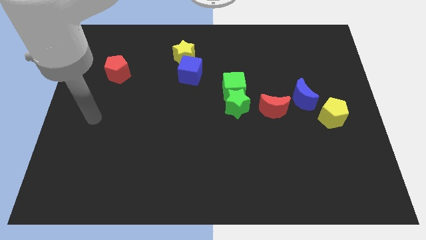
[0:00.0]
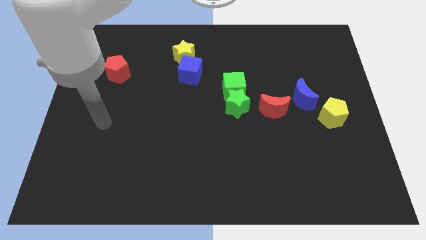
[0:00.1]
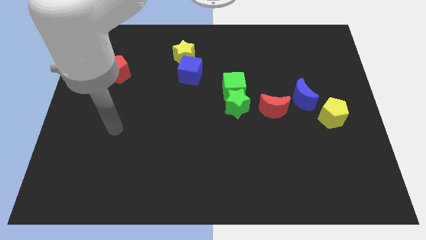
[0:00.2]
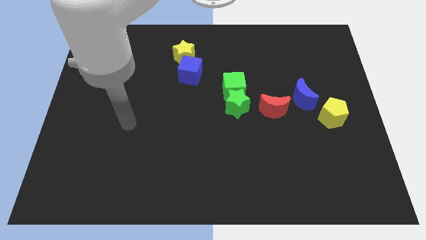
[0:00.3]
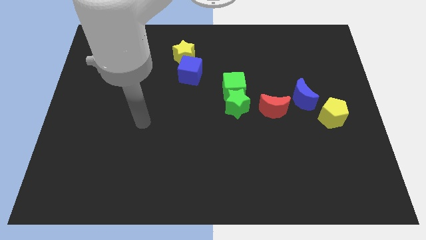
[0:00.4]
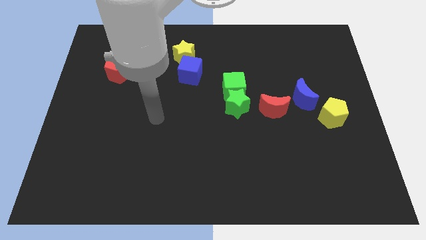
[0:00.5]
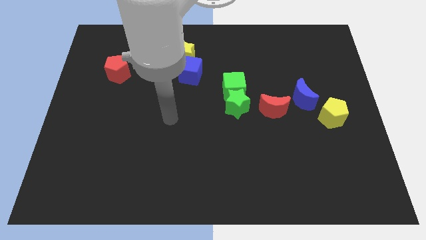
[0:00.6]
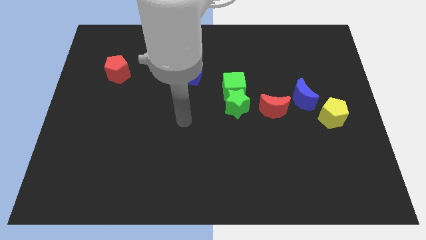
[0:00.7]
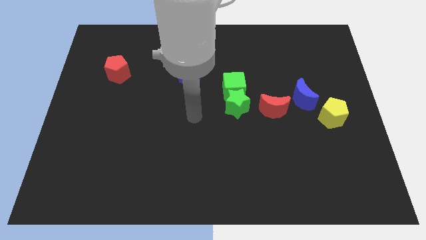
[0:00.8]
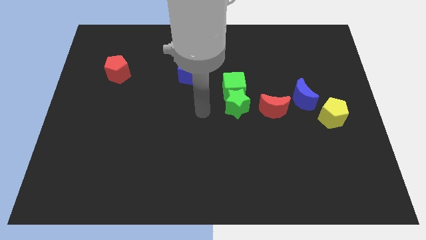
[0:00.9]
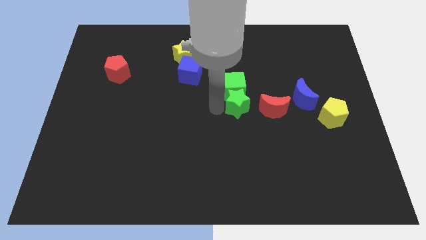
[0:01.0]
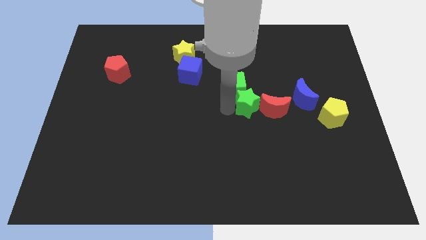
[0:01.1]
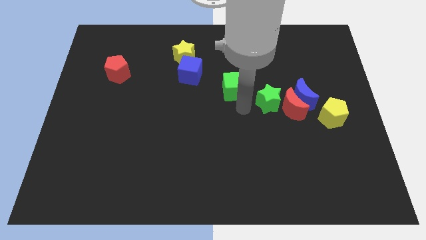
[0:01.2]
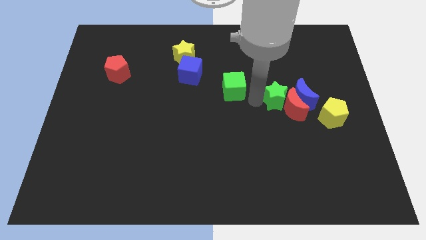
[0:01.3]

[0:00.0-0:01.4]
pull the green cube apart from the green star

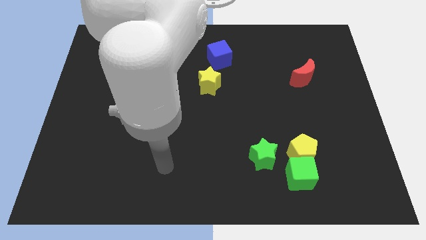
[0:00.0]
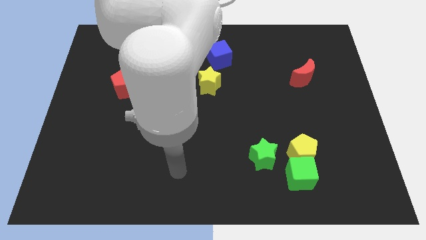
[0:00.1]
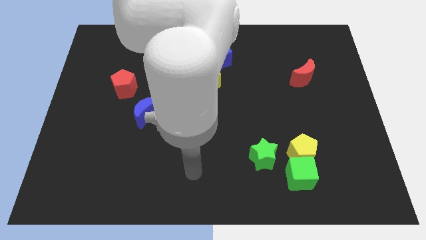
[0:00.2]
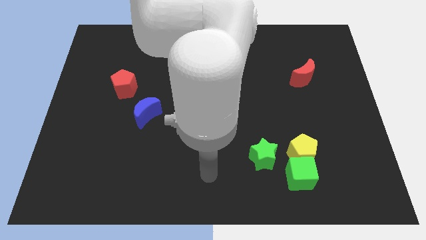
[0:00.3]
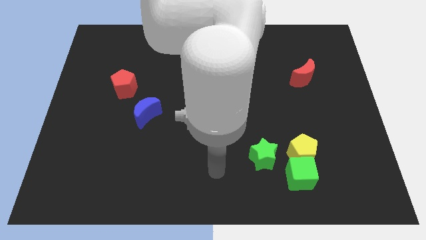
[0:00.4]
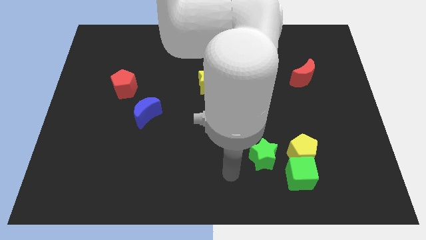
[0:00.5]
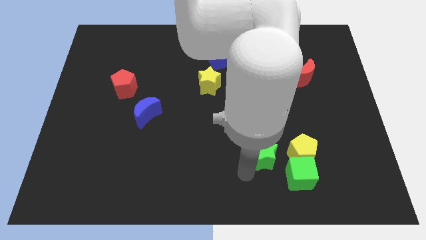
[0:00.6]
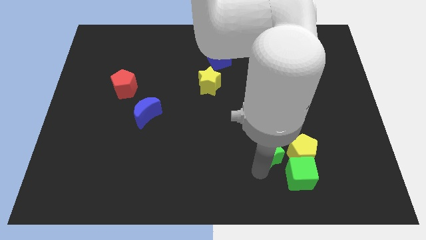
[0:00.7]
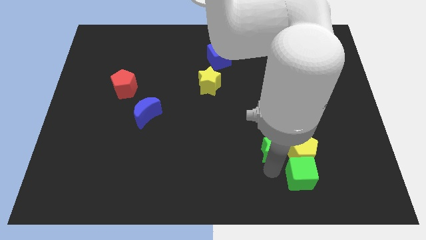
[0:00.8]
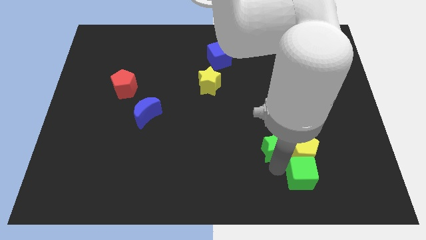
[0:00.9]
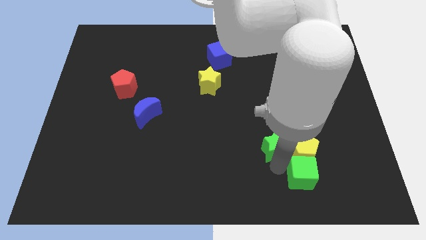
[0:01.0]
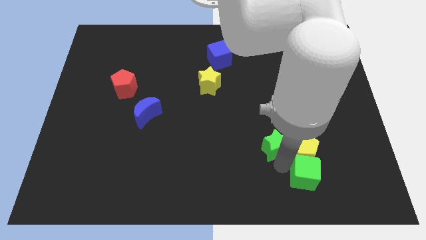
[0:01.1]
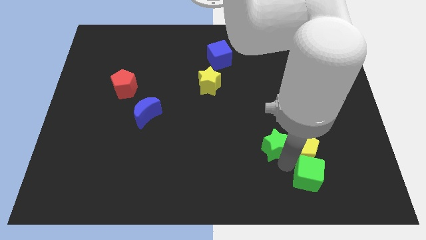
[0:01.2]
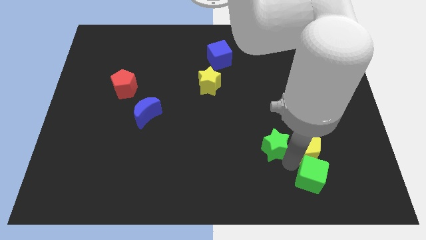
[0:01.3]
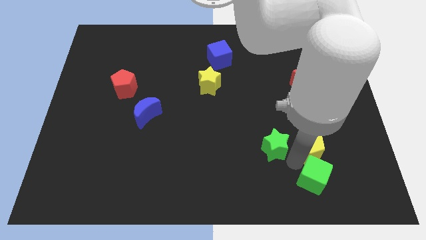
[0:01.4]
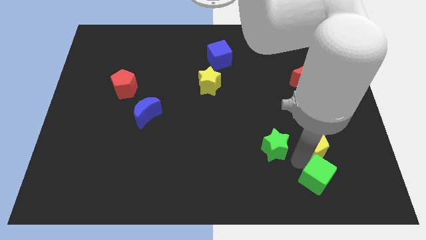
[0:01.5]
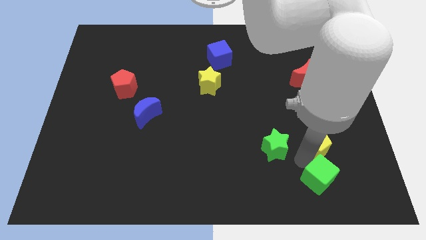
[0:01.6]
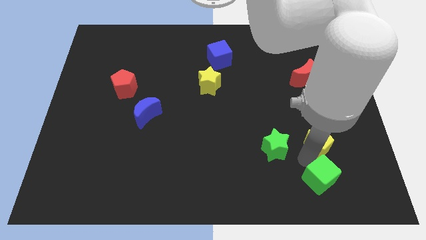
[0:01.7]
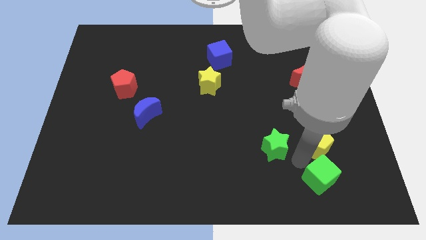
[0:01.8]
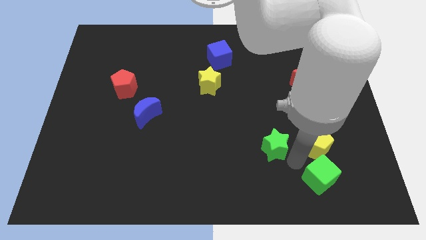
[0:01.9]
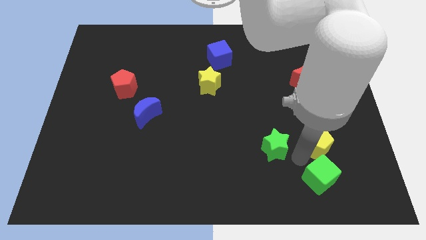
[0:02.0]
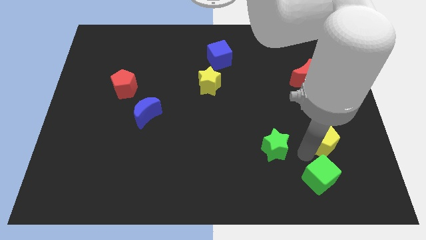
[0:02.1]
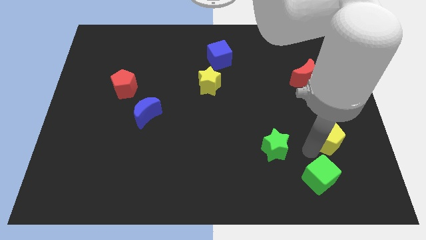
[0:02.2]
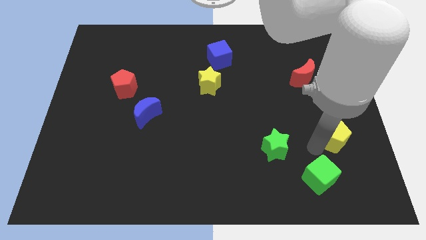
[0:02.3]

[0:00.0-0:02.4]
separate the yellow pentagon from the green cube and green star

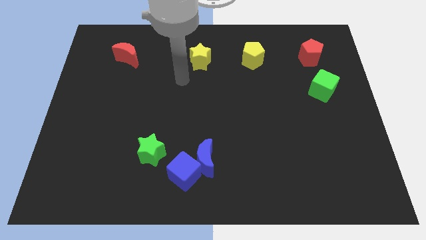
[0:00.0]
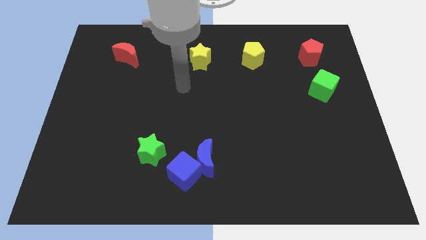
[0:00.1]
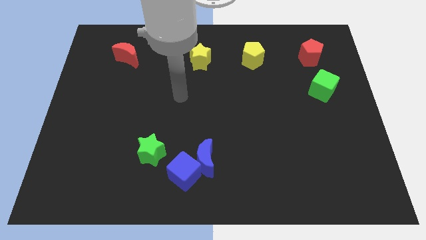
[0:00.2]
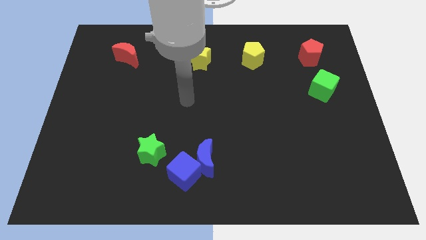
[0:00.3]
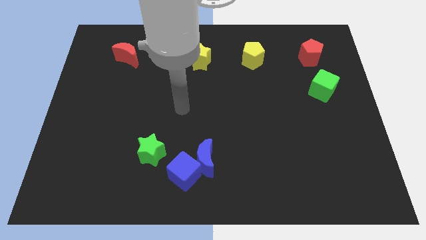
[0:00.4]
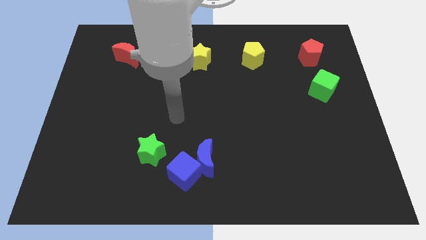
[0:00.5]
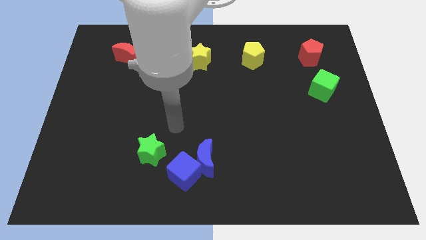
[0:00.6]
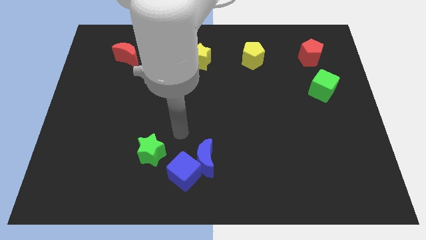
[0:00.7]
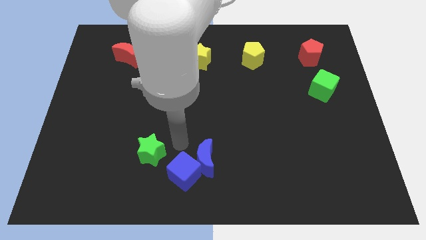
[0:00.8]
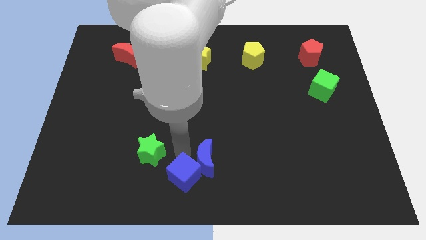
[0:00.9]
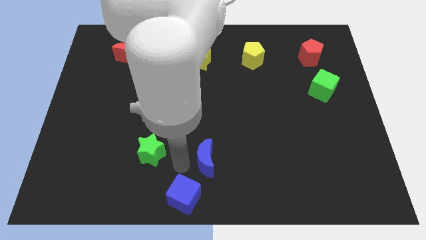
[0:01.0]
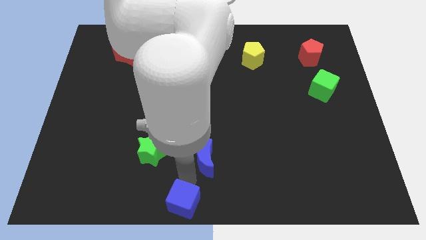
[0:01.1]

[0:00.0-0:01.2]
separate the blue moon from the blue cube

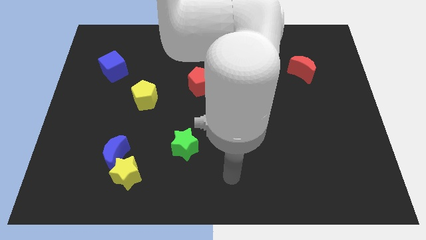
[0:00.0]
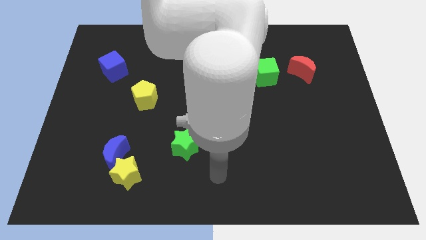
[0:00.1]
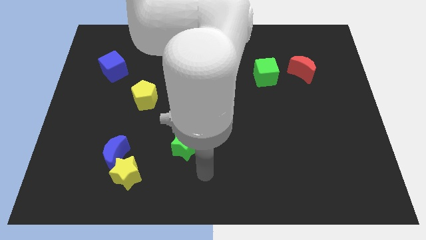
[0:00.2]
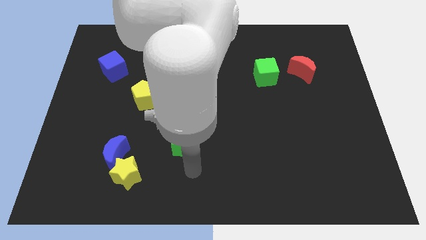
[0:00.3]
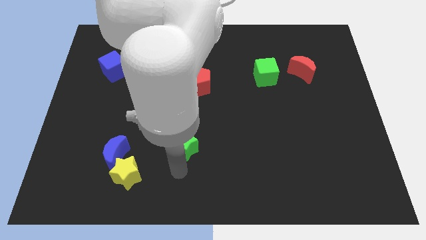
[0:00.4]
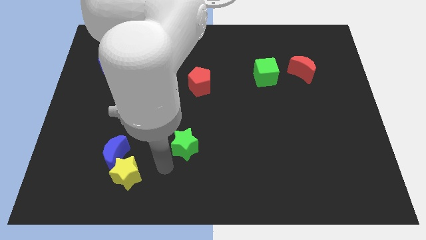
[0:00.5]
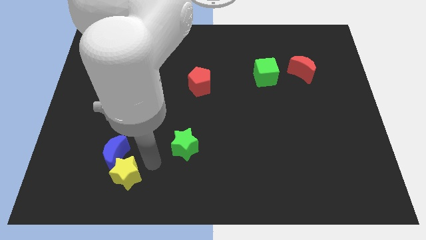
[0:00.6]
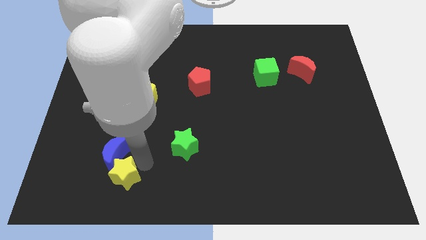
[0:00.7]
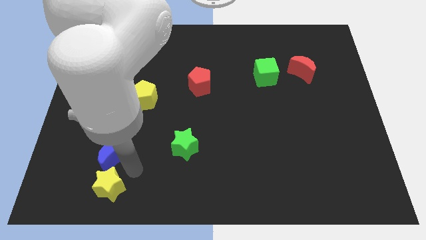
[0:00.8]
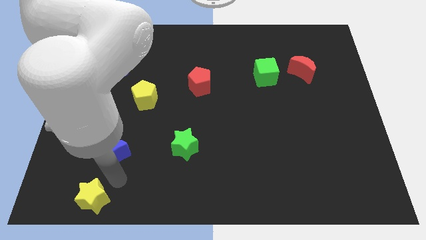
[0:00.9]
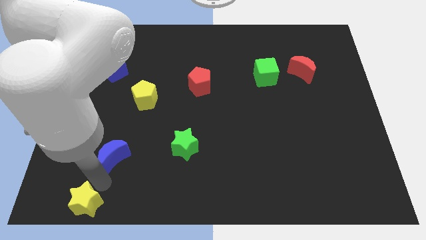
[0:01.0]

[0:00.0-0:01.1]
separate the blue moon from the yellow star

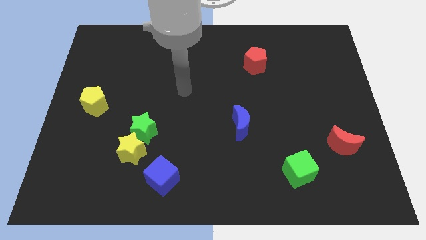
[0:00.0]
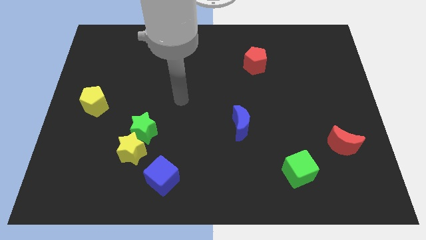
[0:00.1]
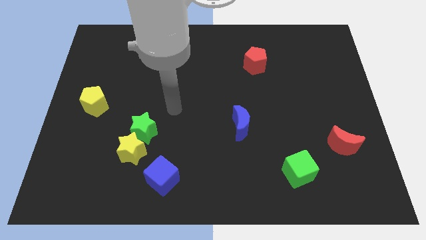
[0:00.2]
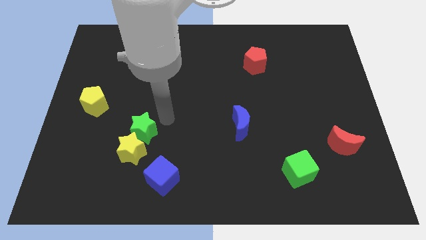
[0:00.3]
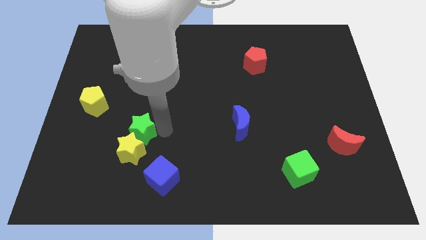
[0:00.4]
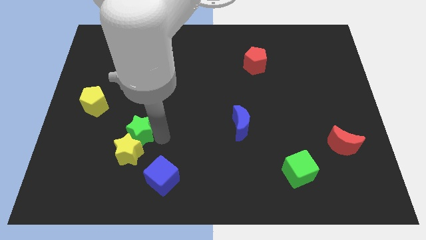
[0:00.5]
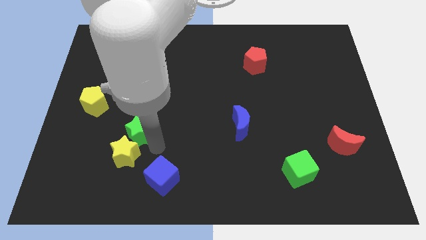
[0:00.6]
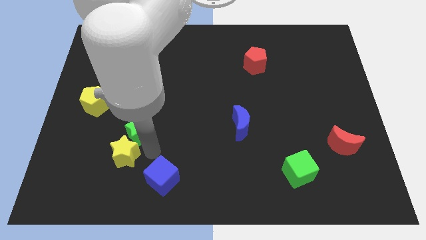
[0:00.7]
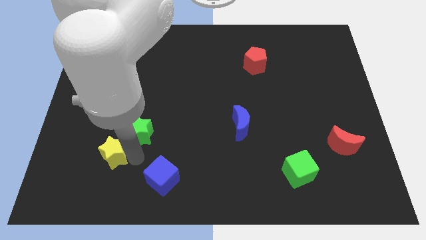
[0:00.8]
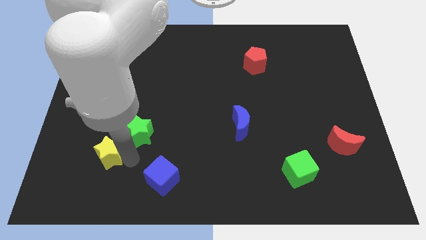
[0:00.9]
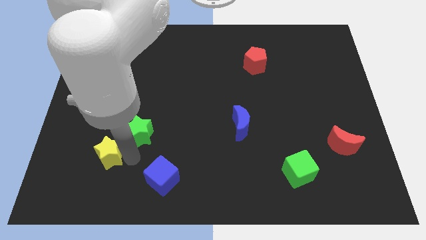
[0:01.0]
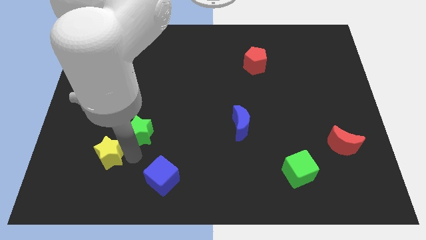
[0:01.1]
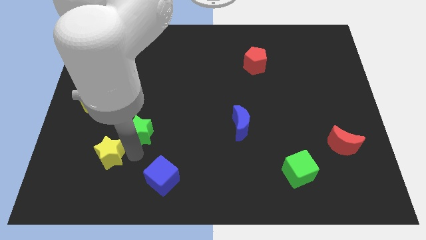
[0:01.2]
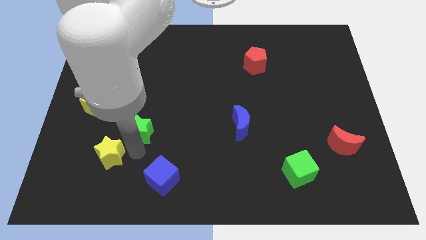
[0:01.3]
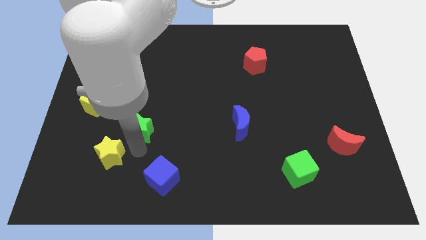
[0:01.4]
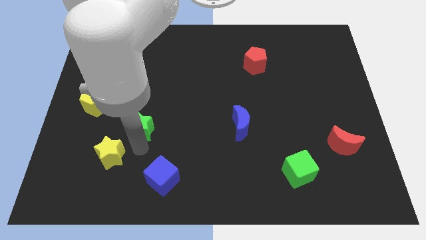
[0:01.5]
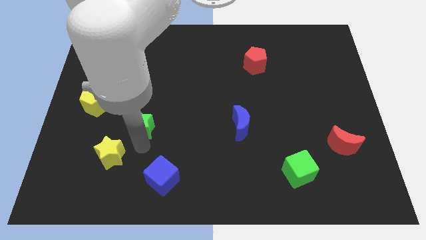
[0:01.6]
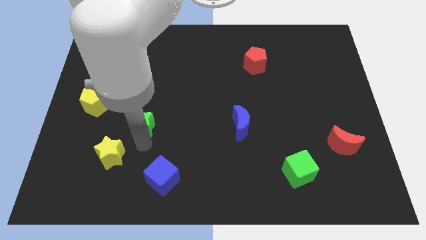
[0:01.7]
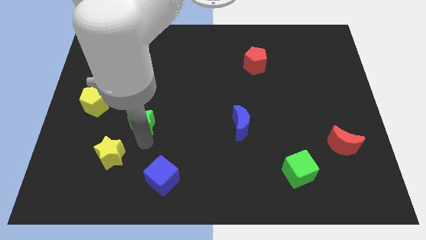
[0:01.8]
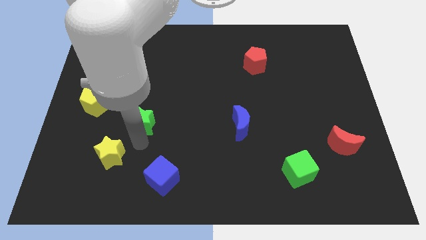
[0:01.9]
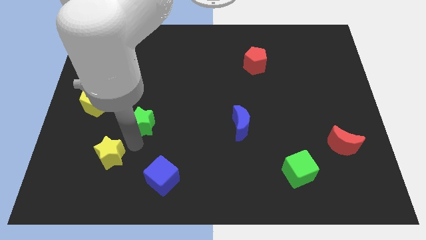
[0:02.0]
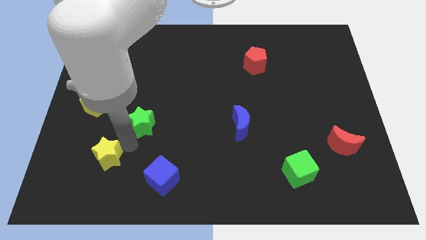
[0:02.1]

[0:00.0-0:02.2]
pull the green star apart from the yellow star

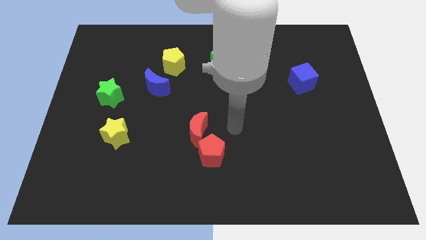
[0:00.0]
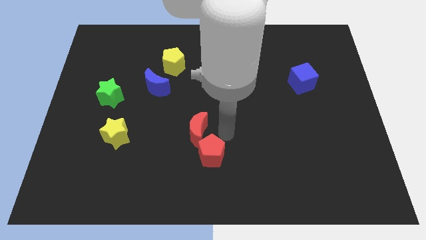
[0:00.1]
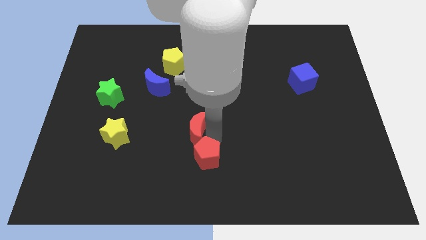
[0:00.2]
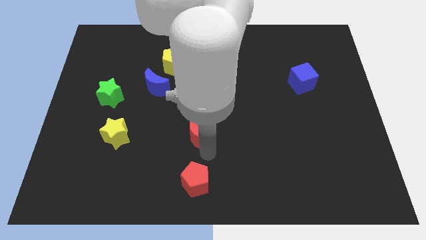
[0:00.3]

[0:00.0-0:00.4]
pull the red moon apart from the red pentagon

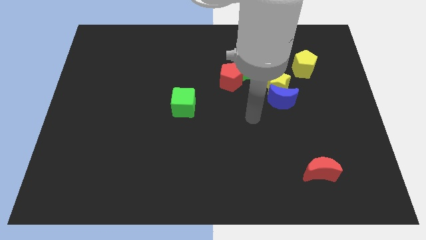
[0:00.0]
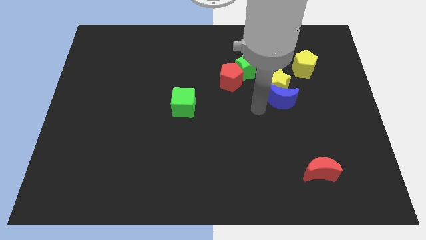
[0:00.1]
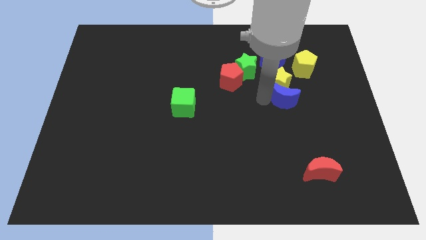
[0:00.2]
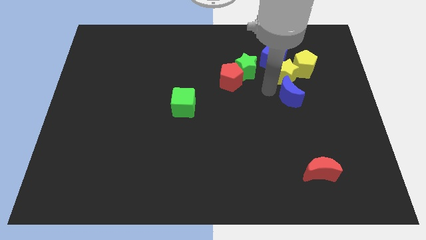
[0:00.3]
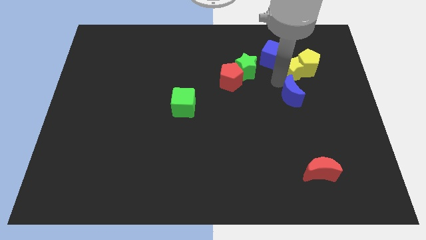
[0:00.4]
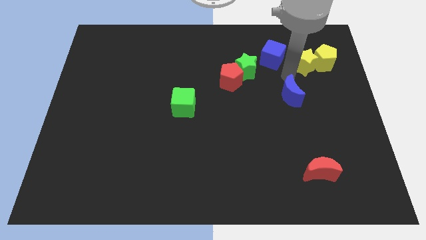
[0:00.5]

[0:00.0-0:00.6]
pull the blue moon apart from the yellow star
